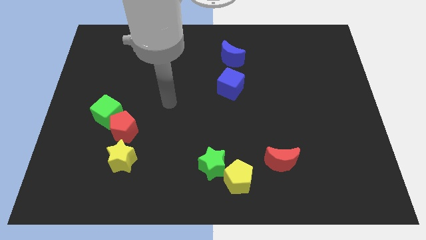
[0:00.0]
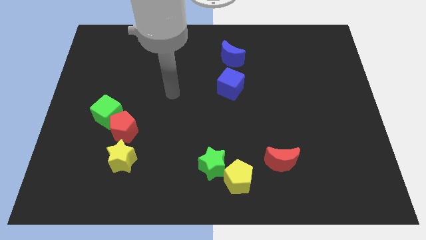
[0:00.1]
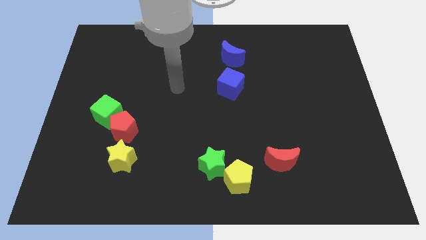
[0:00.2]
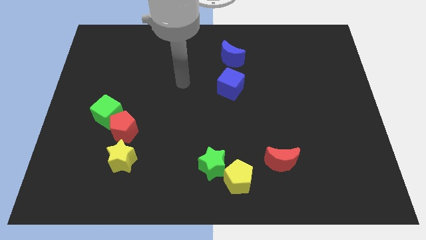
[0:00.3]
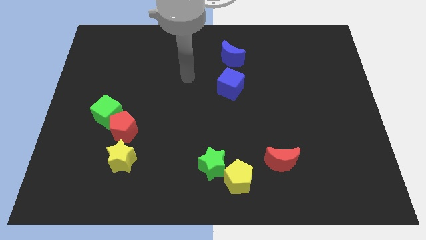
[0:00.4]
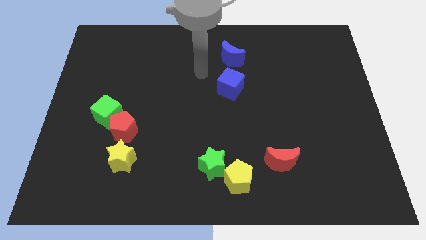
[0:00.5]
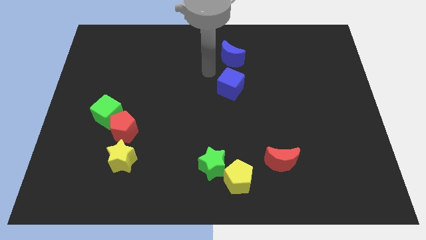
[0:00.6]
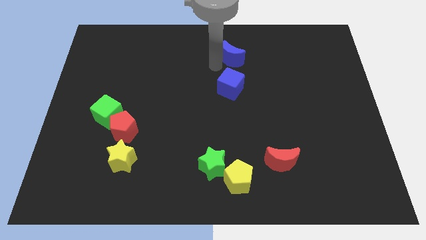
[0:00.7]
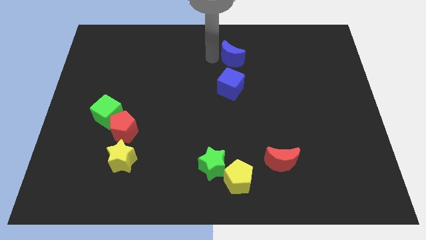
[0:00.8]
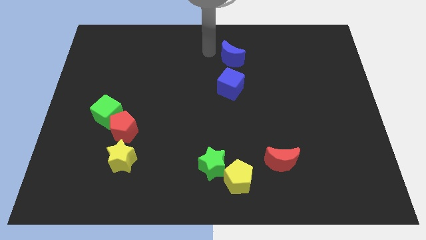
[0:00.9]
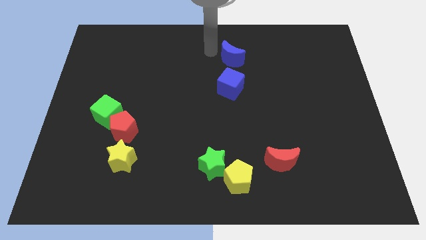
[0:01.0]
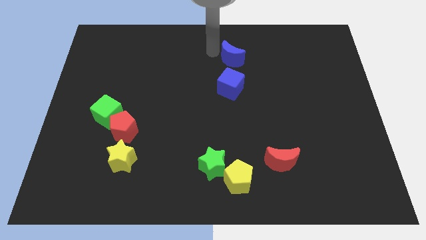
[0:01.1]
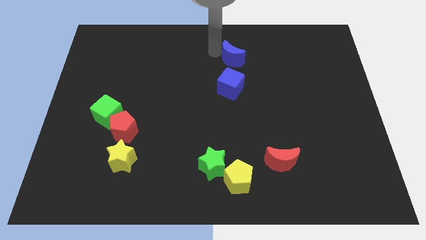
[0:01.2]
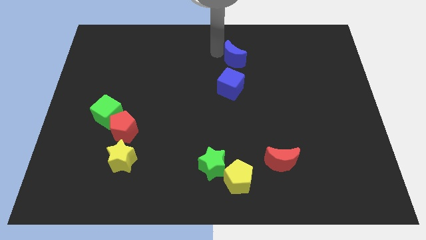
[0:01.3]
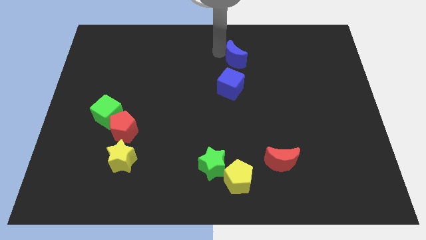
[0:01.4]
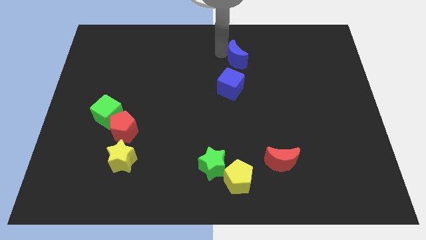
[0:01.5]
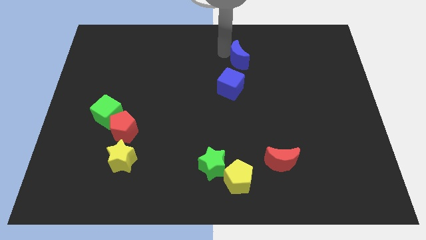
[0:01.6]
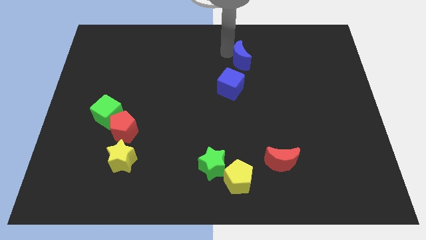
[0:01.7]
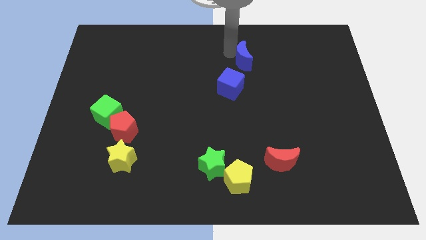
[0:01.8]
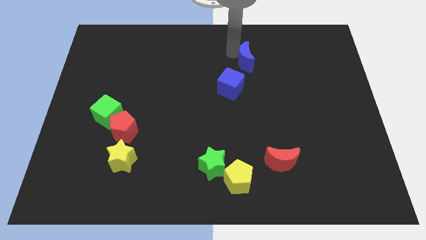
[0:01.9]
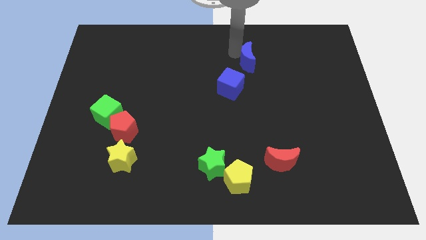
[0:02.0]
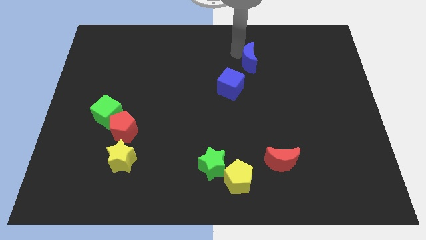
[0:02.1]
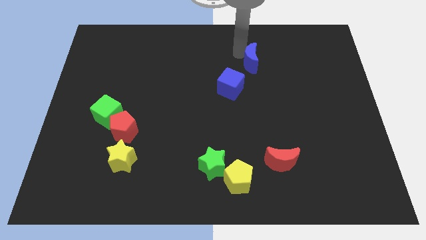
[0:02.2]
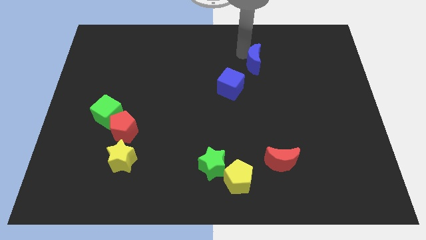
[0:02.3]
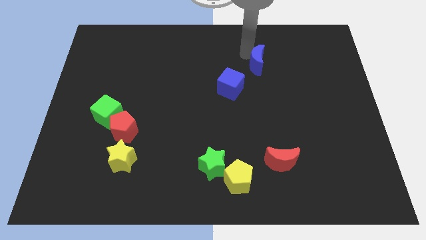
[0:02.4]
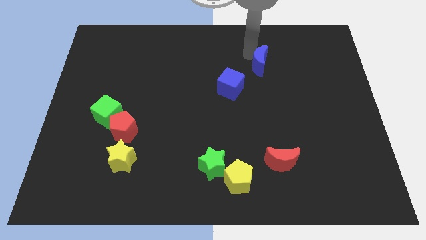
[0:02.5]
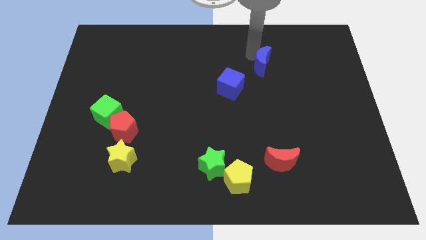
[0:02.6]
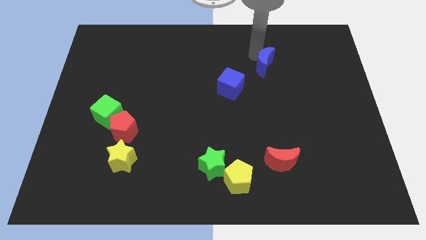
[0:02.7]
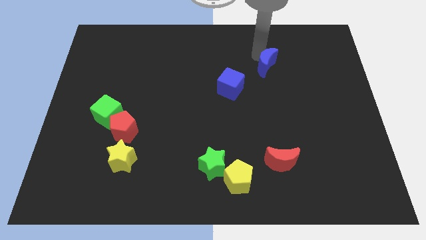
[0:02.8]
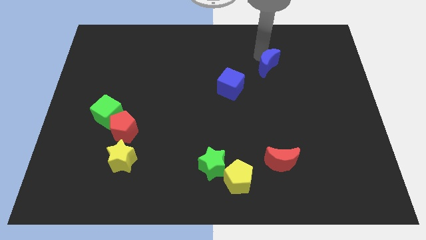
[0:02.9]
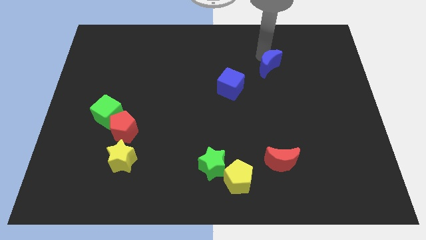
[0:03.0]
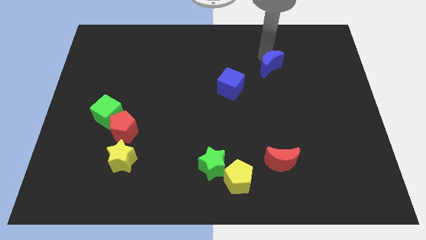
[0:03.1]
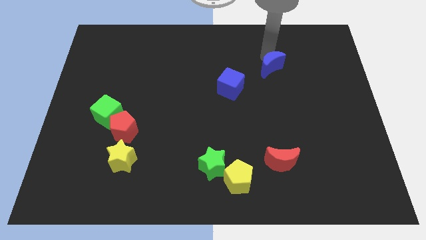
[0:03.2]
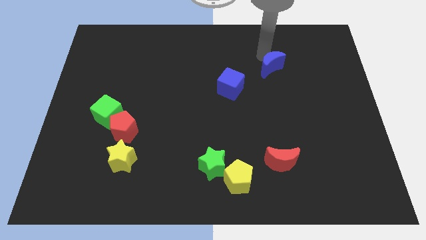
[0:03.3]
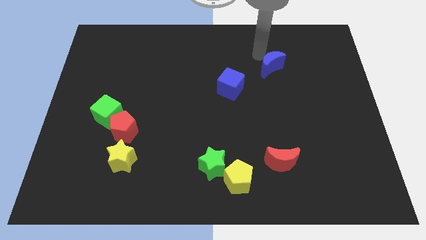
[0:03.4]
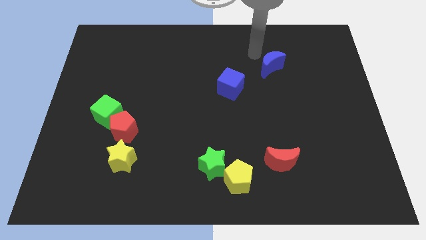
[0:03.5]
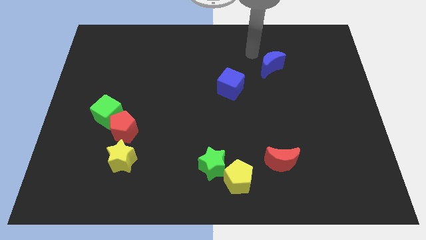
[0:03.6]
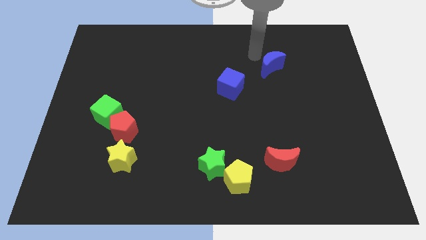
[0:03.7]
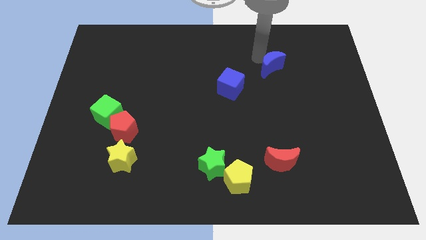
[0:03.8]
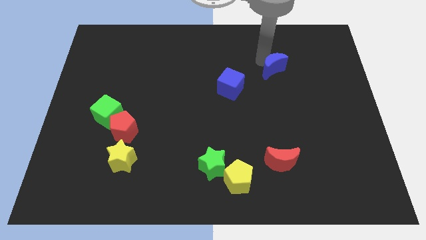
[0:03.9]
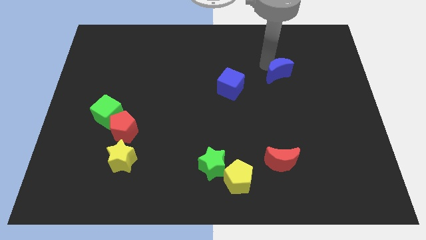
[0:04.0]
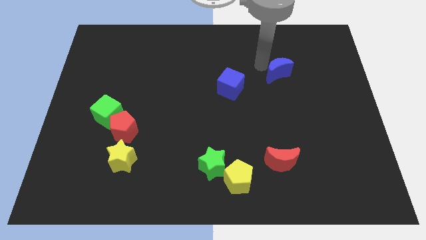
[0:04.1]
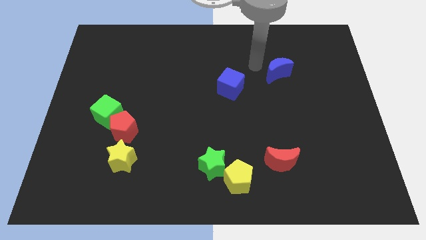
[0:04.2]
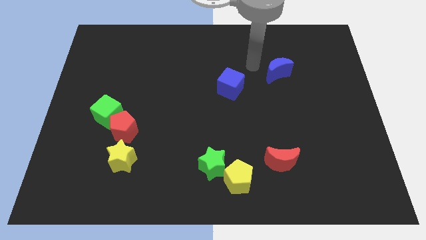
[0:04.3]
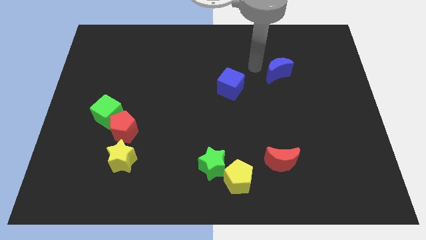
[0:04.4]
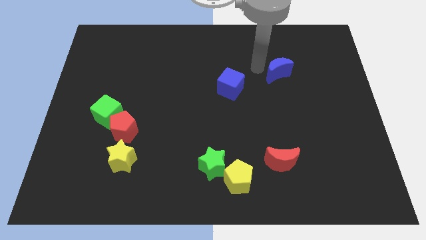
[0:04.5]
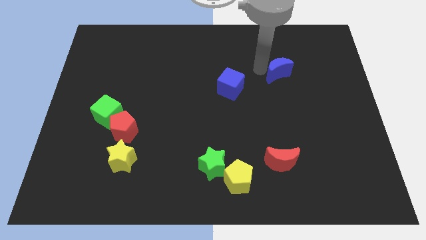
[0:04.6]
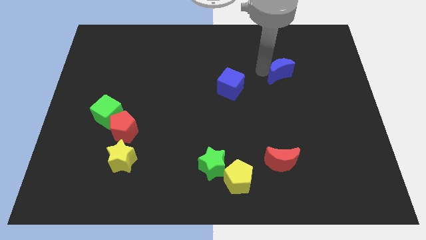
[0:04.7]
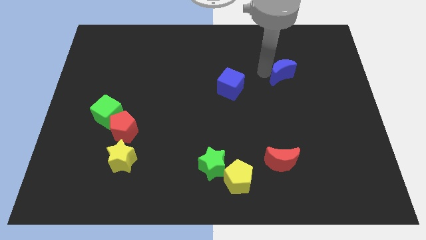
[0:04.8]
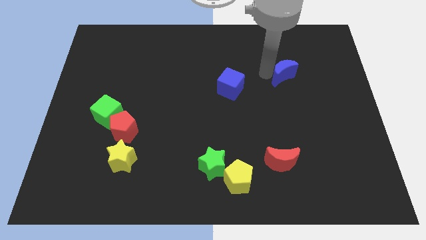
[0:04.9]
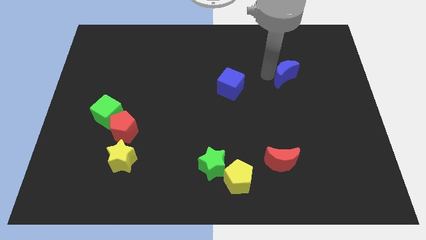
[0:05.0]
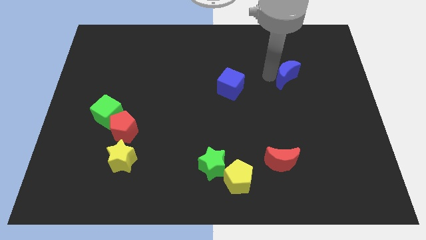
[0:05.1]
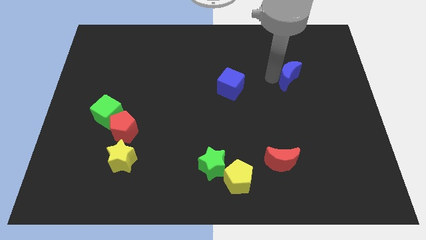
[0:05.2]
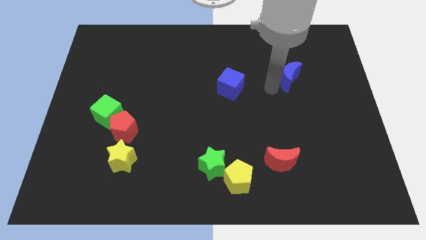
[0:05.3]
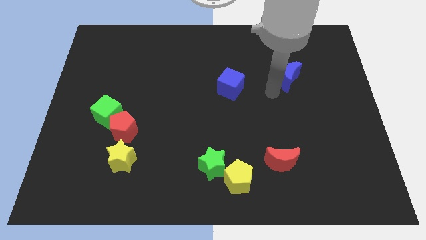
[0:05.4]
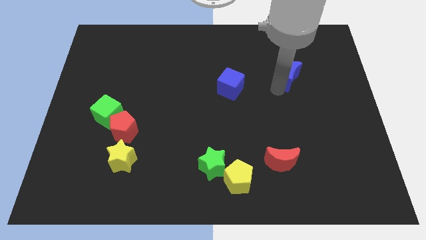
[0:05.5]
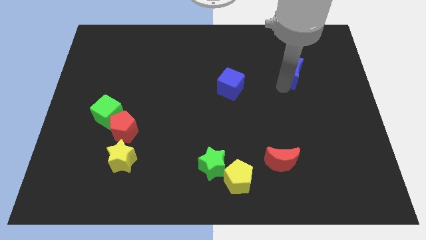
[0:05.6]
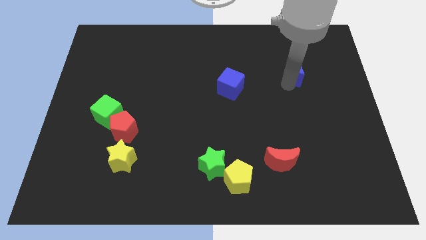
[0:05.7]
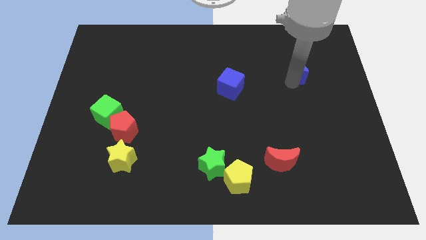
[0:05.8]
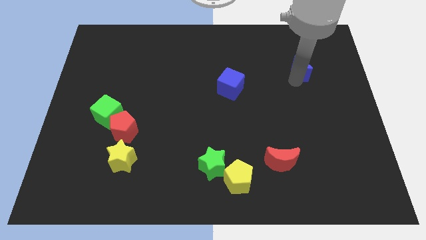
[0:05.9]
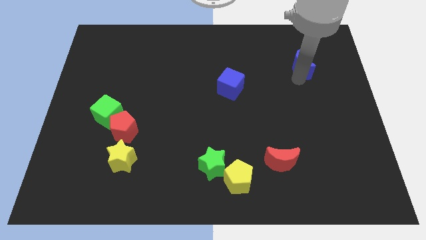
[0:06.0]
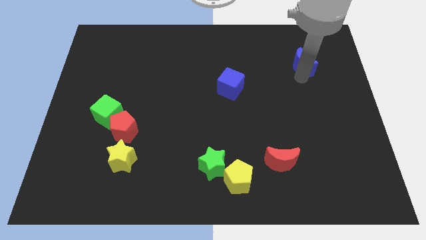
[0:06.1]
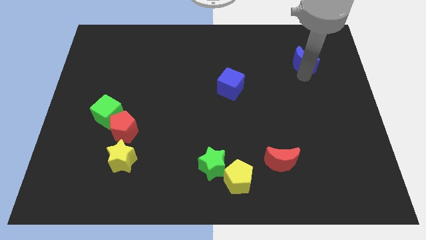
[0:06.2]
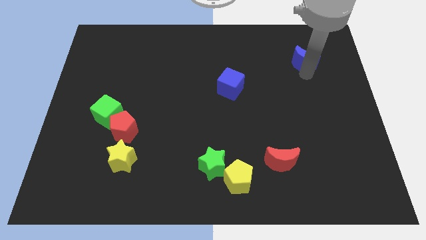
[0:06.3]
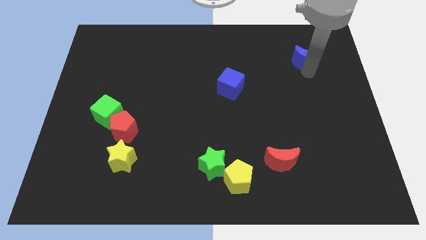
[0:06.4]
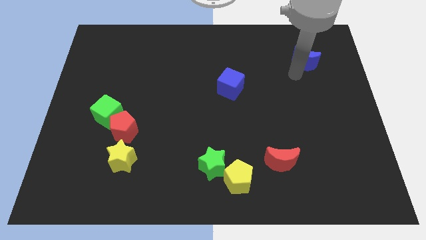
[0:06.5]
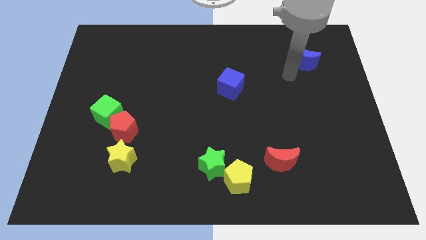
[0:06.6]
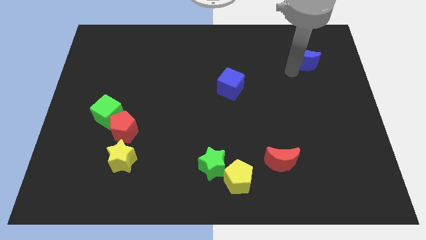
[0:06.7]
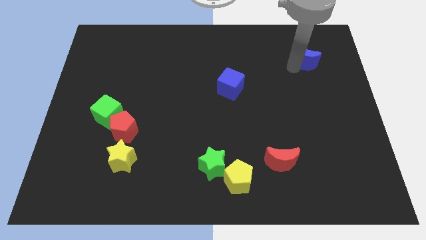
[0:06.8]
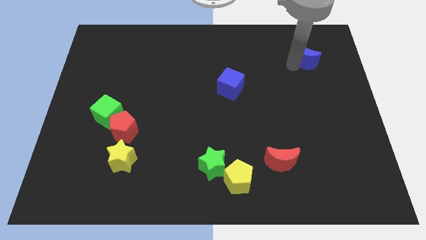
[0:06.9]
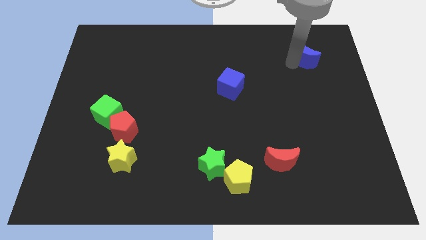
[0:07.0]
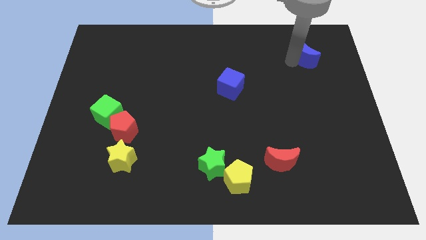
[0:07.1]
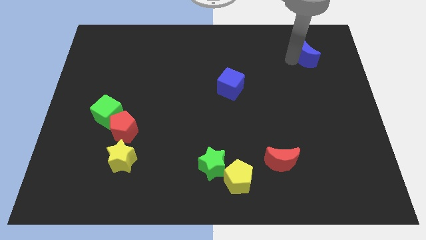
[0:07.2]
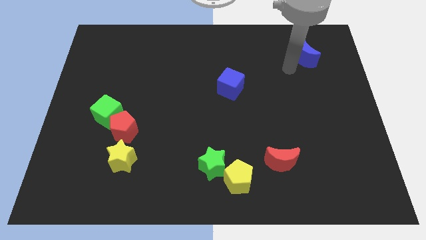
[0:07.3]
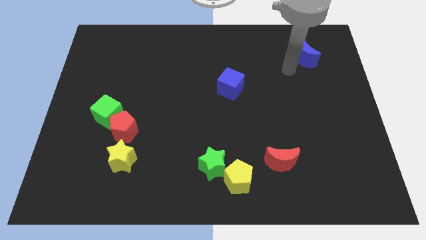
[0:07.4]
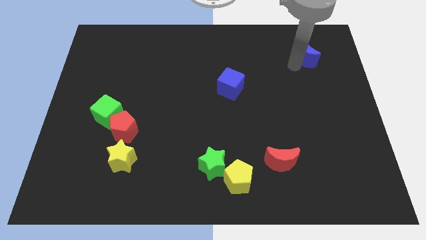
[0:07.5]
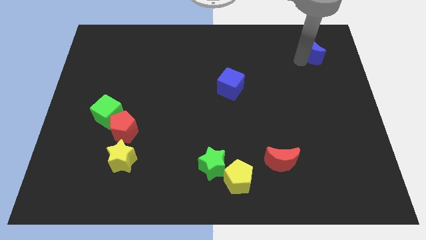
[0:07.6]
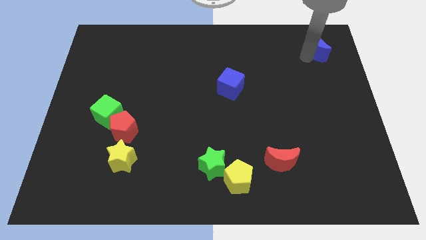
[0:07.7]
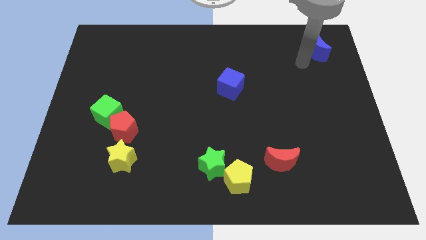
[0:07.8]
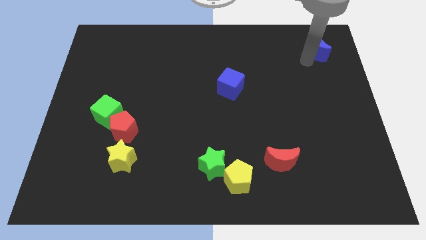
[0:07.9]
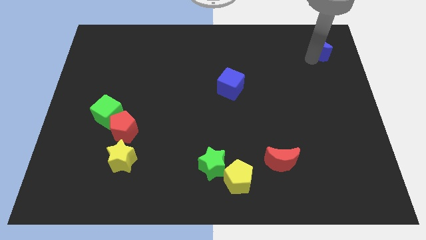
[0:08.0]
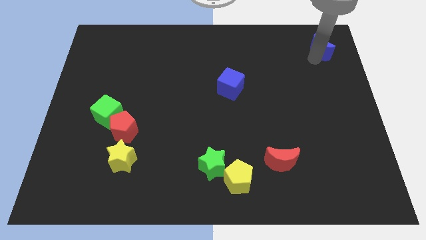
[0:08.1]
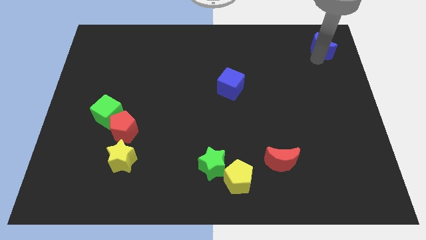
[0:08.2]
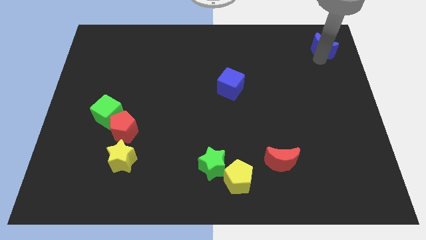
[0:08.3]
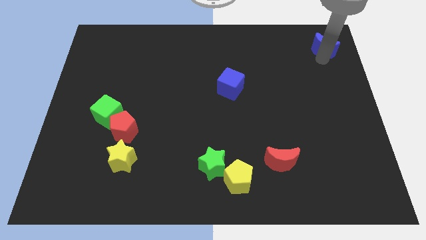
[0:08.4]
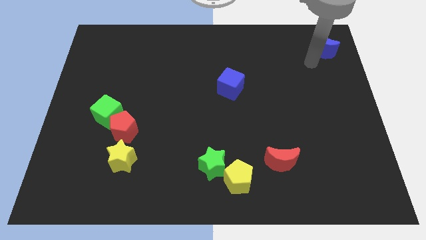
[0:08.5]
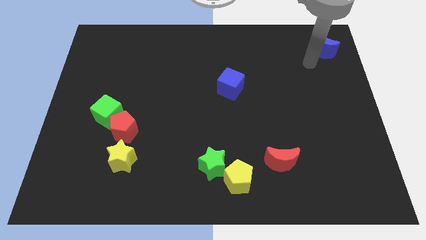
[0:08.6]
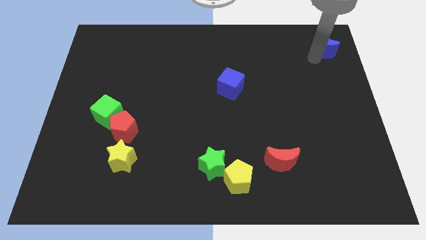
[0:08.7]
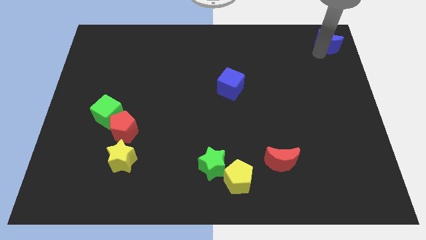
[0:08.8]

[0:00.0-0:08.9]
move the blue moon to the upper right corner
